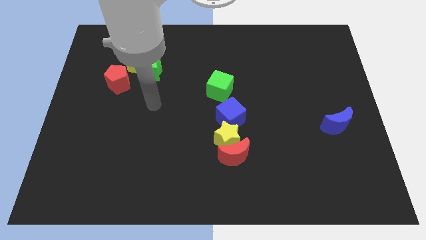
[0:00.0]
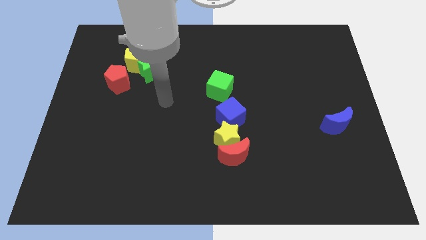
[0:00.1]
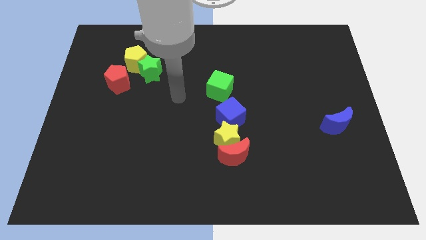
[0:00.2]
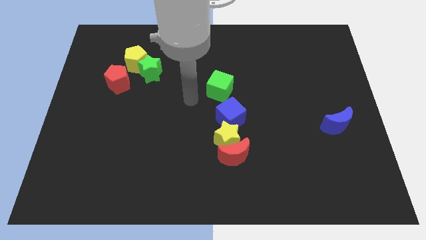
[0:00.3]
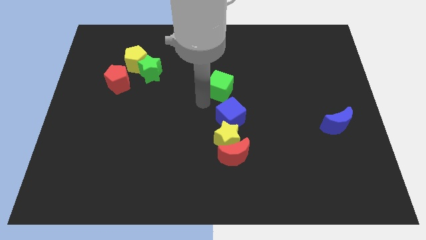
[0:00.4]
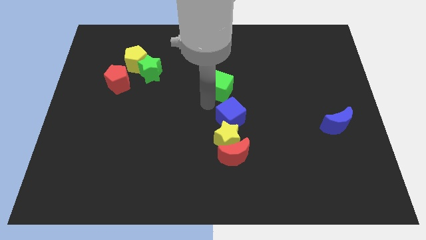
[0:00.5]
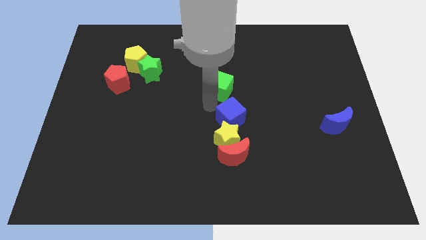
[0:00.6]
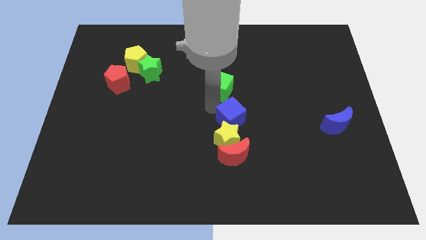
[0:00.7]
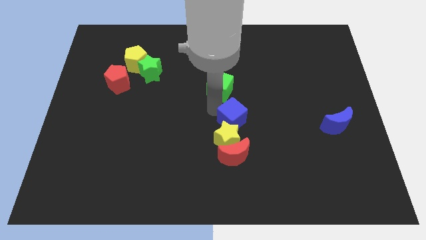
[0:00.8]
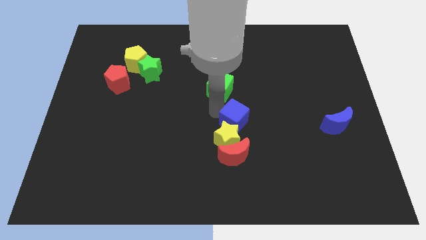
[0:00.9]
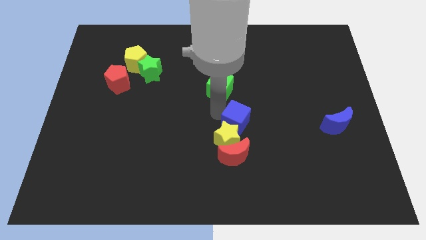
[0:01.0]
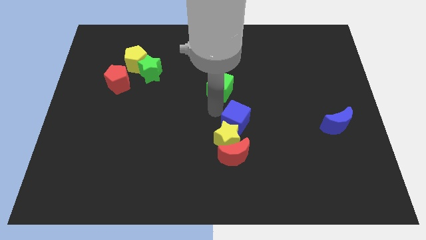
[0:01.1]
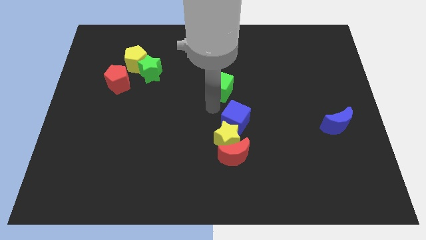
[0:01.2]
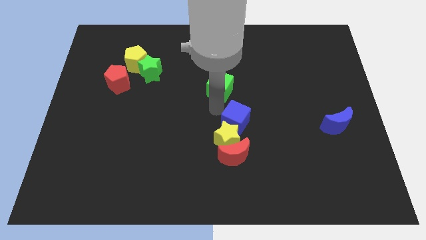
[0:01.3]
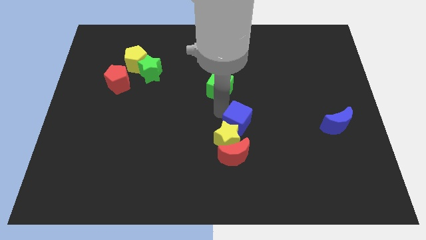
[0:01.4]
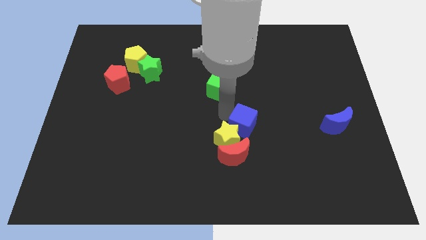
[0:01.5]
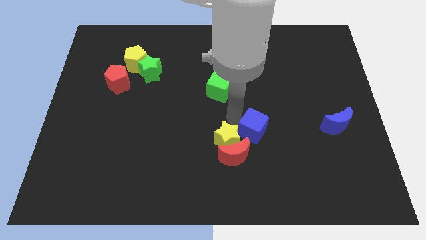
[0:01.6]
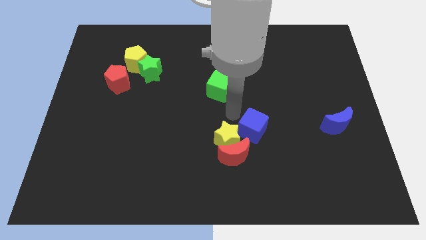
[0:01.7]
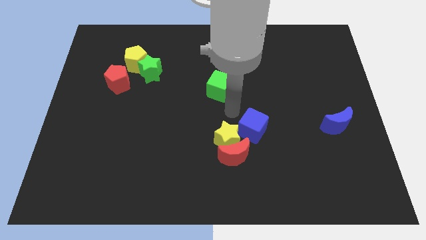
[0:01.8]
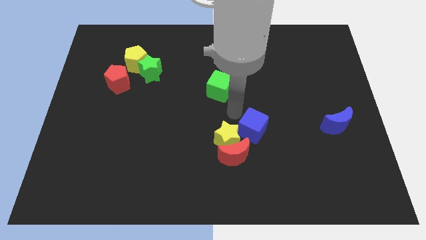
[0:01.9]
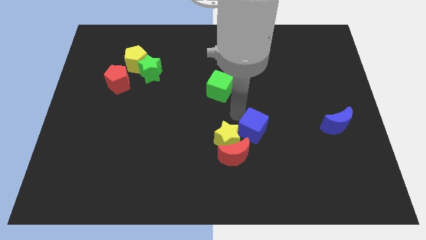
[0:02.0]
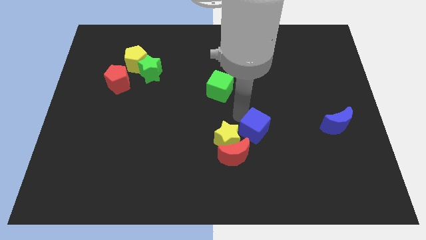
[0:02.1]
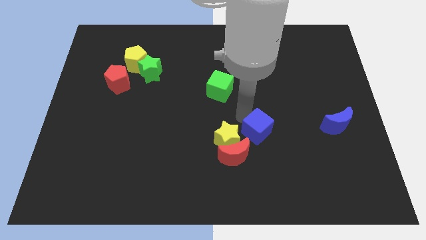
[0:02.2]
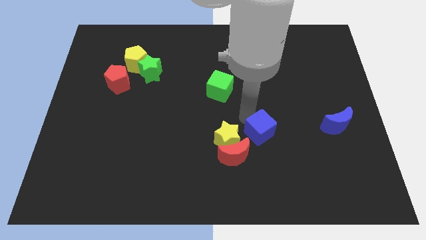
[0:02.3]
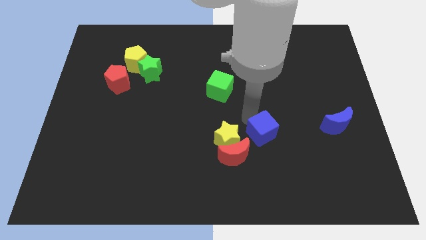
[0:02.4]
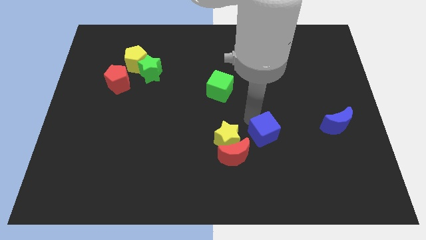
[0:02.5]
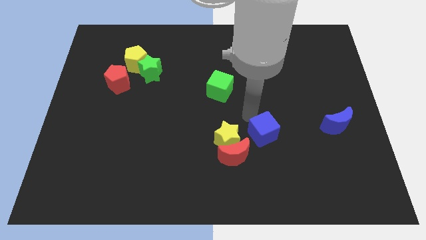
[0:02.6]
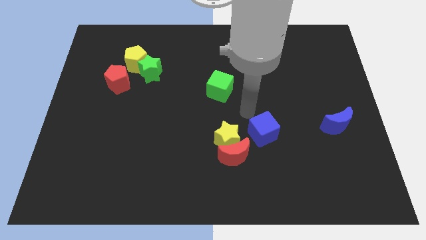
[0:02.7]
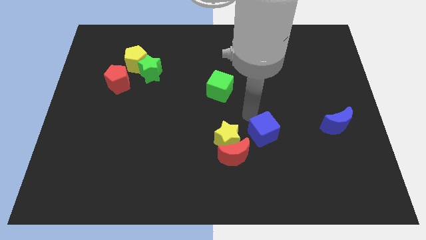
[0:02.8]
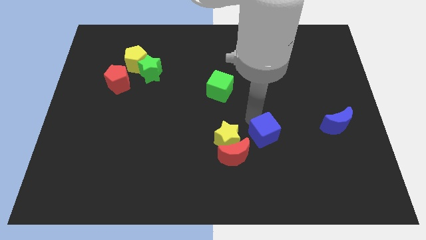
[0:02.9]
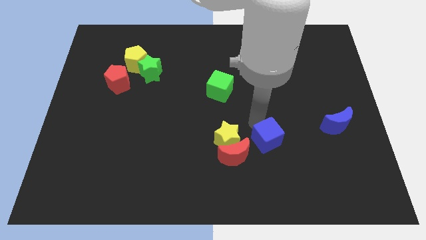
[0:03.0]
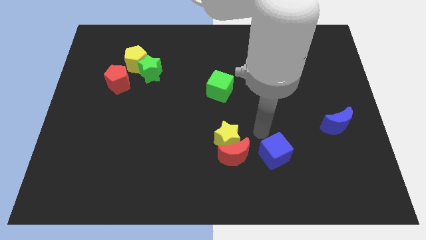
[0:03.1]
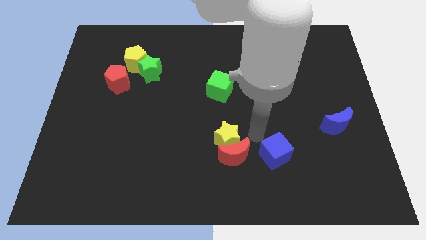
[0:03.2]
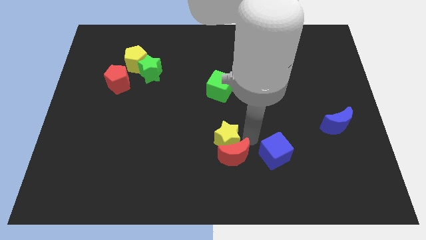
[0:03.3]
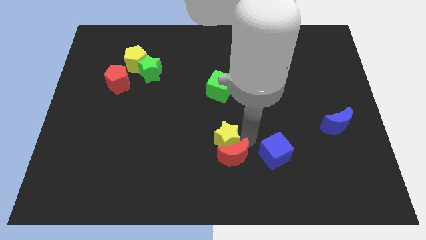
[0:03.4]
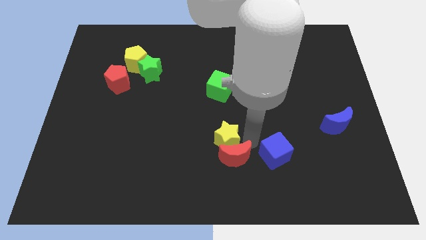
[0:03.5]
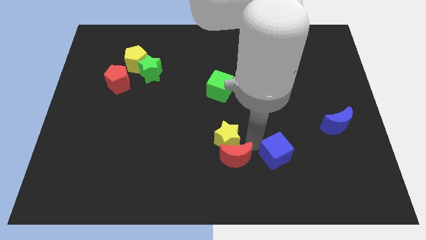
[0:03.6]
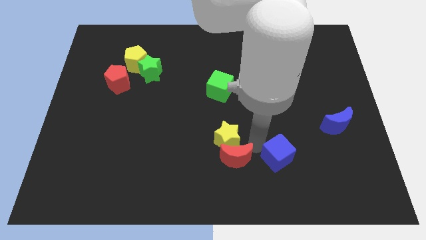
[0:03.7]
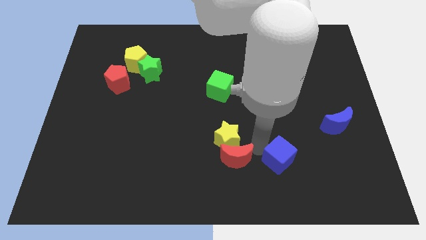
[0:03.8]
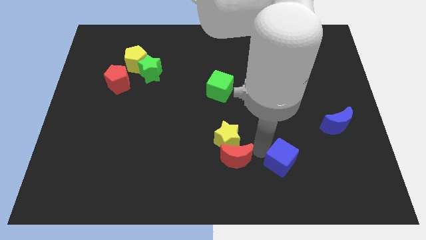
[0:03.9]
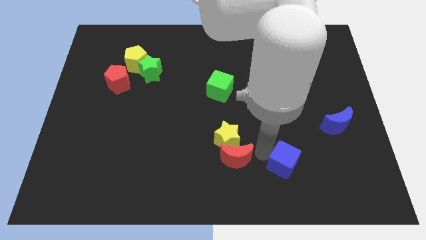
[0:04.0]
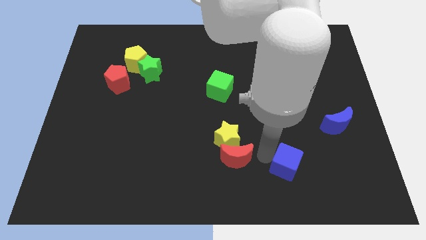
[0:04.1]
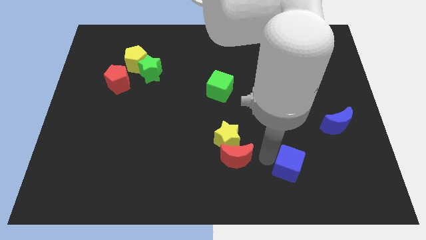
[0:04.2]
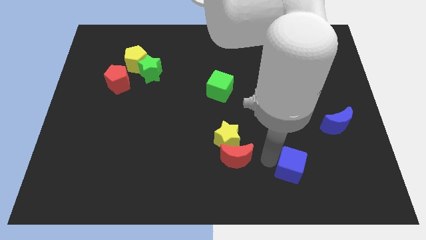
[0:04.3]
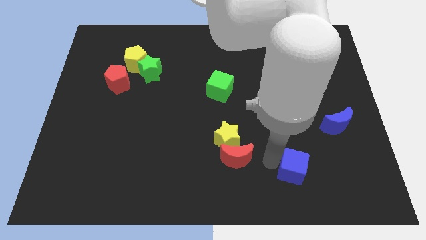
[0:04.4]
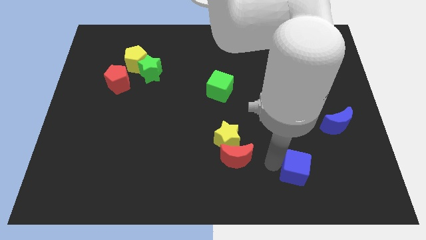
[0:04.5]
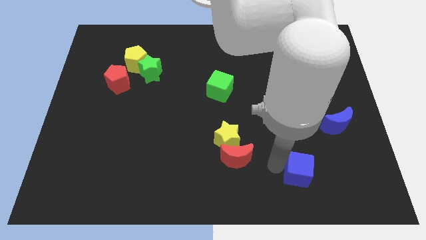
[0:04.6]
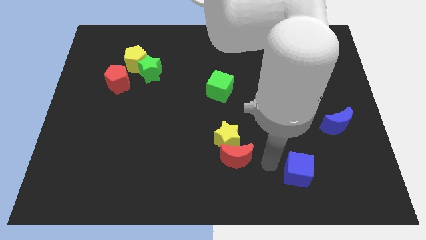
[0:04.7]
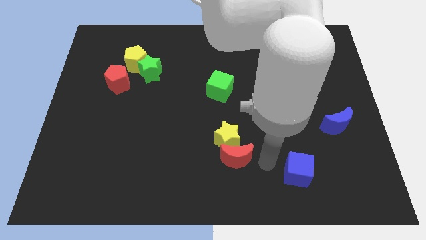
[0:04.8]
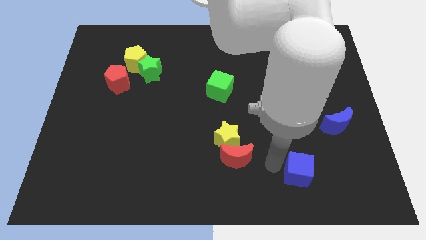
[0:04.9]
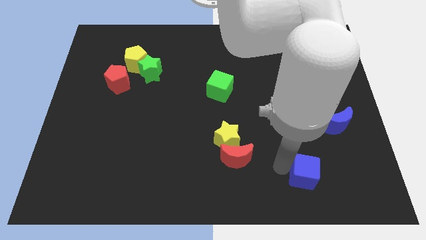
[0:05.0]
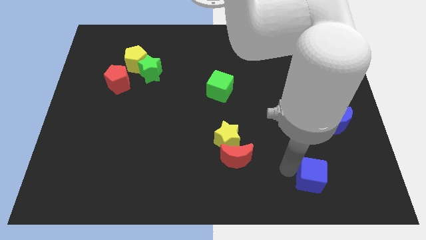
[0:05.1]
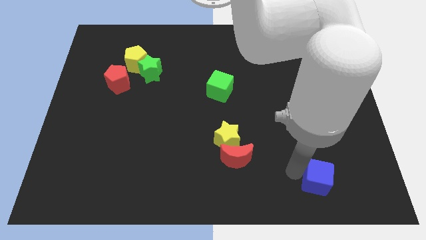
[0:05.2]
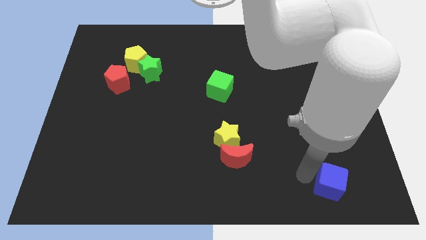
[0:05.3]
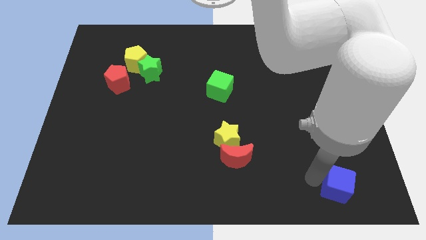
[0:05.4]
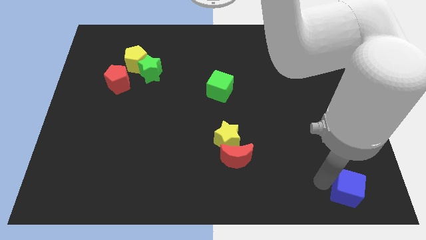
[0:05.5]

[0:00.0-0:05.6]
move the blue cube to the bottom right corner

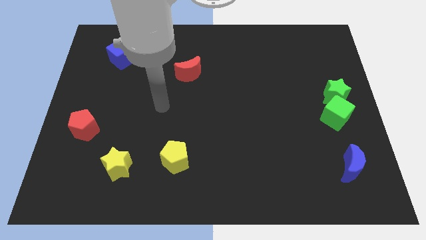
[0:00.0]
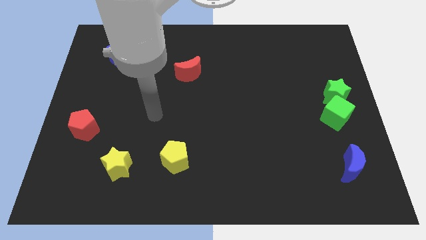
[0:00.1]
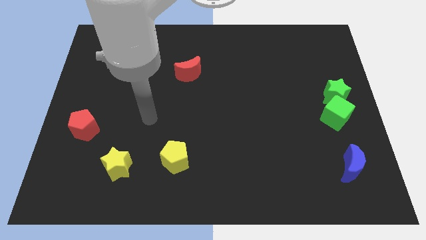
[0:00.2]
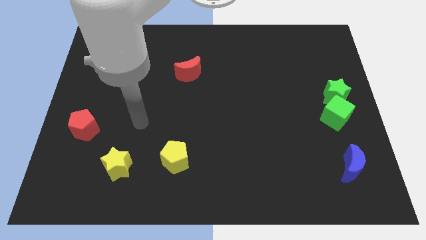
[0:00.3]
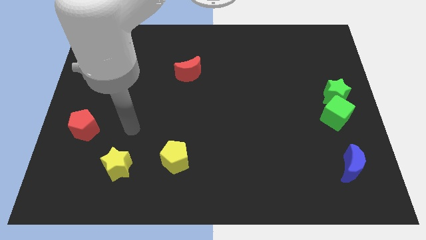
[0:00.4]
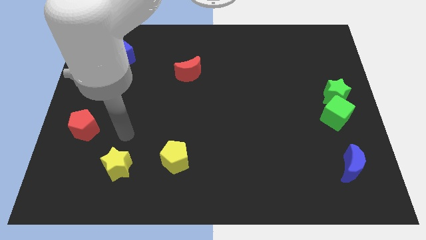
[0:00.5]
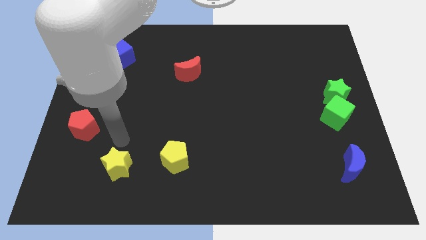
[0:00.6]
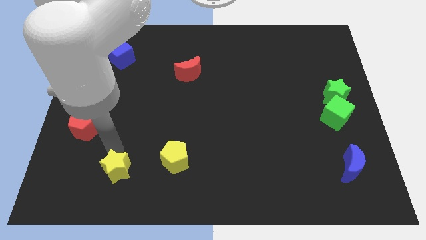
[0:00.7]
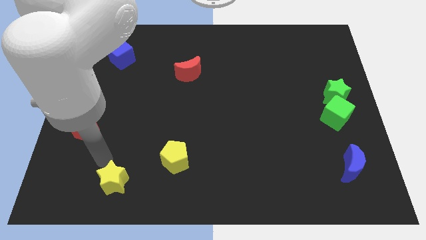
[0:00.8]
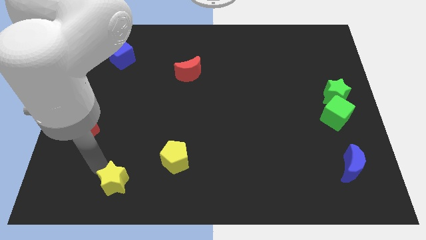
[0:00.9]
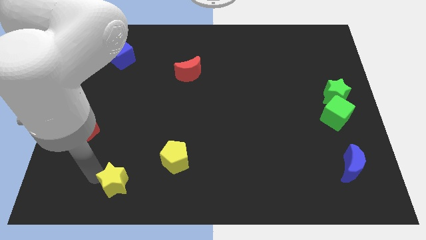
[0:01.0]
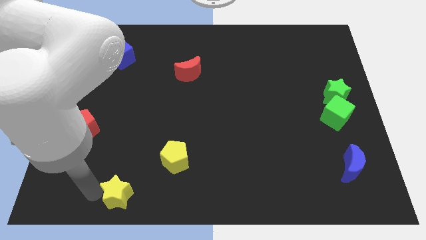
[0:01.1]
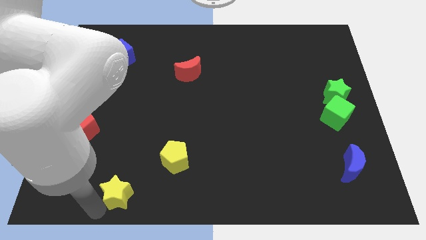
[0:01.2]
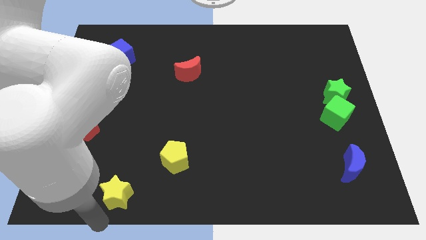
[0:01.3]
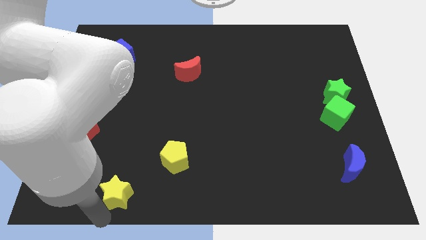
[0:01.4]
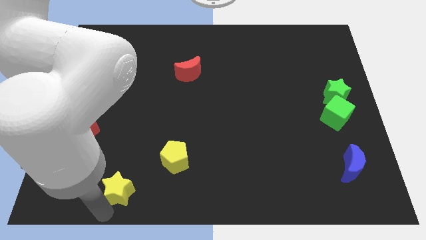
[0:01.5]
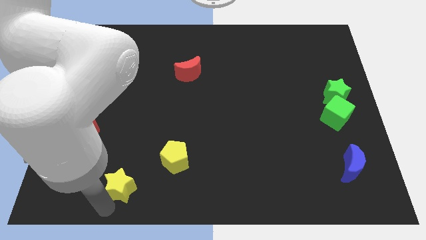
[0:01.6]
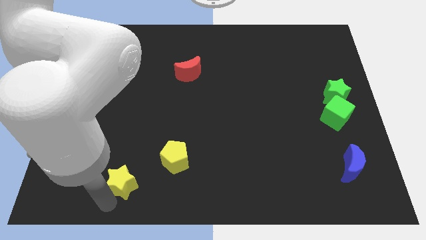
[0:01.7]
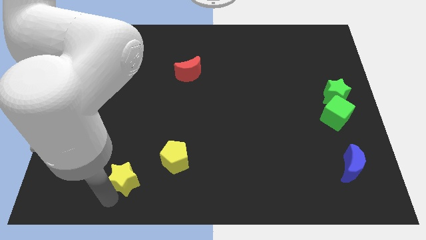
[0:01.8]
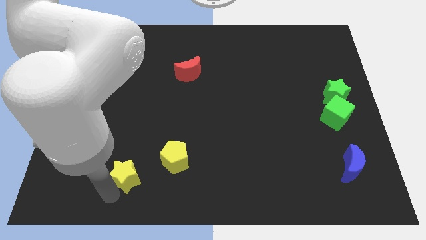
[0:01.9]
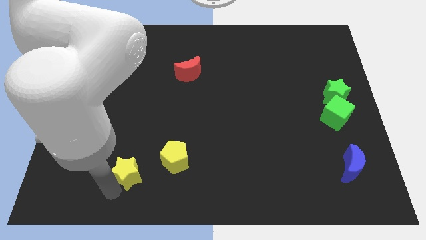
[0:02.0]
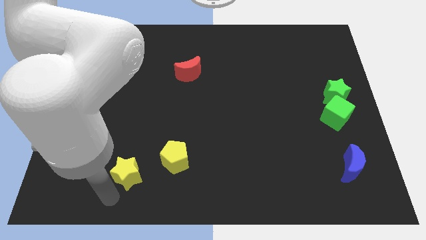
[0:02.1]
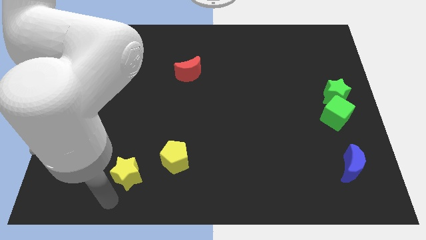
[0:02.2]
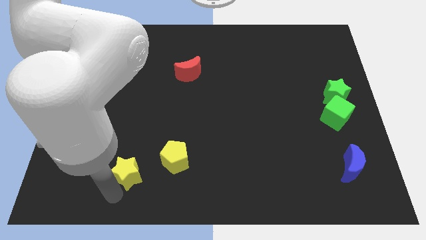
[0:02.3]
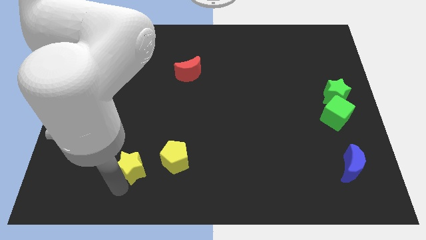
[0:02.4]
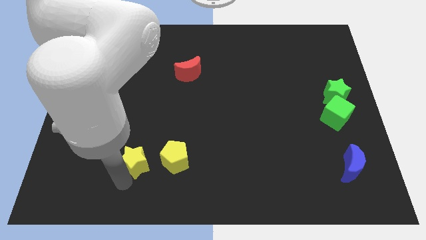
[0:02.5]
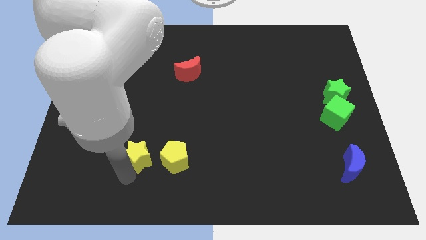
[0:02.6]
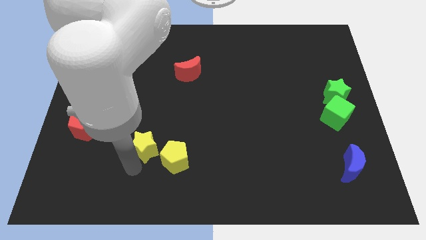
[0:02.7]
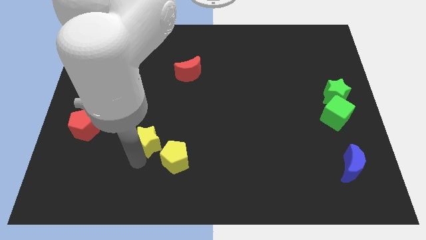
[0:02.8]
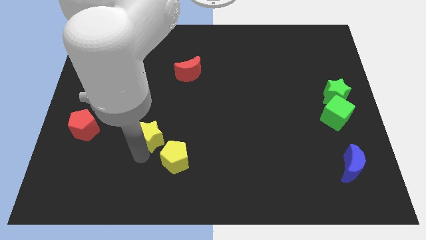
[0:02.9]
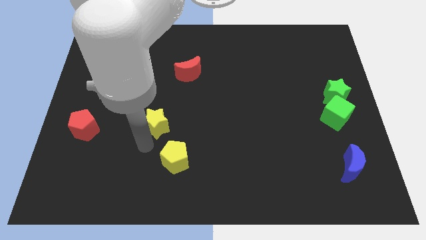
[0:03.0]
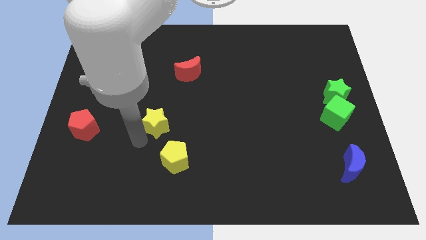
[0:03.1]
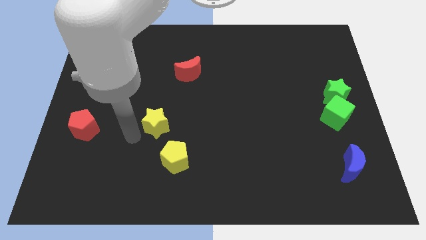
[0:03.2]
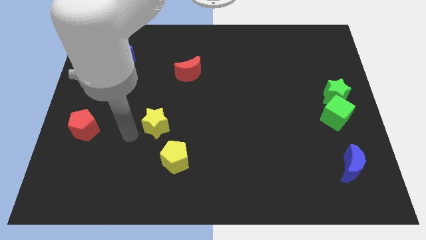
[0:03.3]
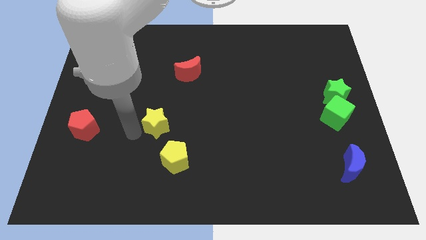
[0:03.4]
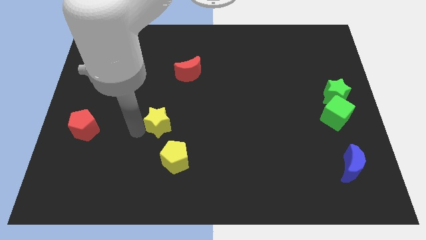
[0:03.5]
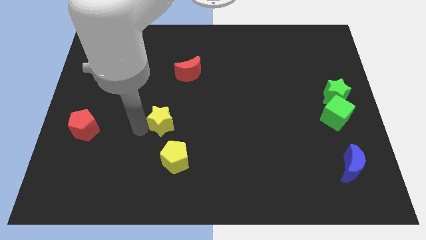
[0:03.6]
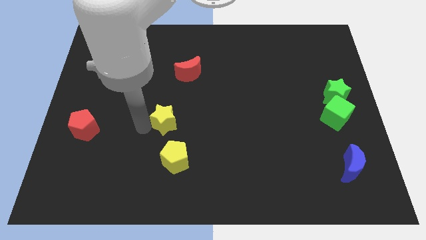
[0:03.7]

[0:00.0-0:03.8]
put the yellow star to the center of the board
